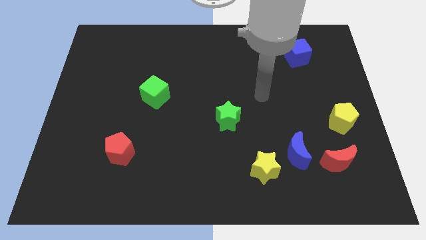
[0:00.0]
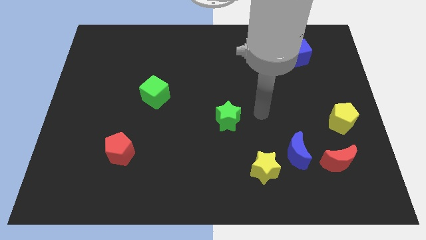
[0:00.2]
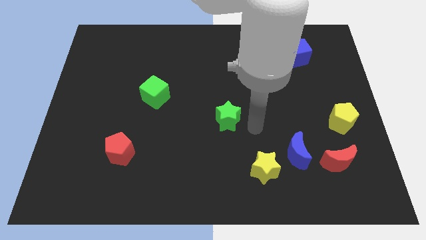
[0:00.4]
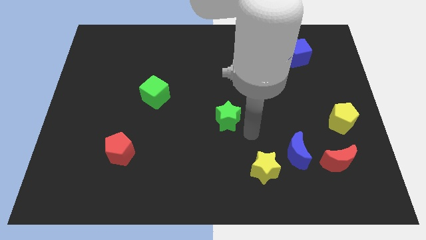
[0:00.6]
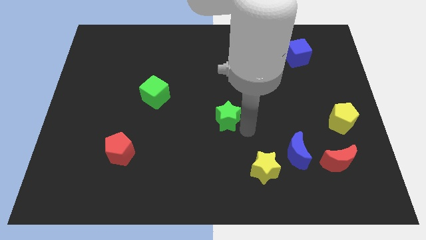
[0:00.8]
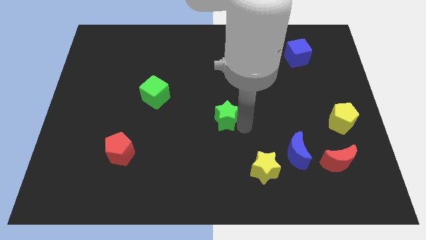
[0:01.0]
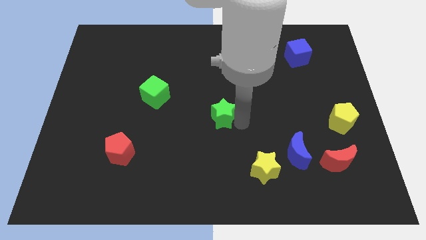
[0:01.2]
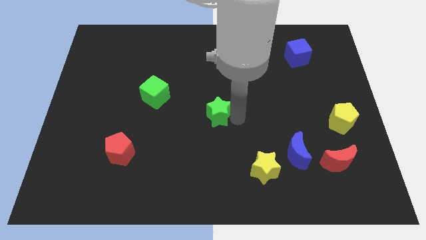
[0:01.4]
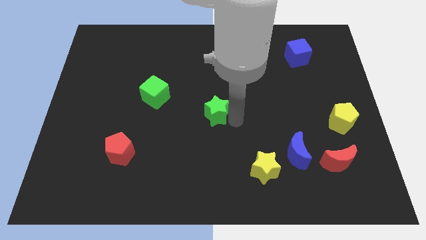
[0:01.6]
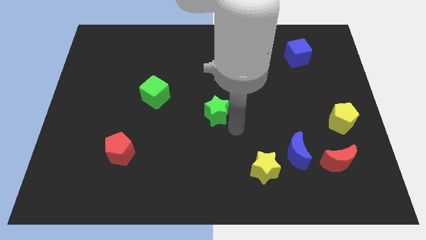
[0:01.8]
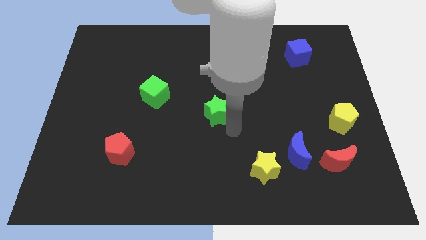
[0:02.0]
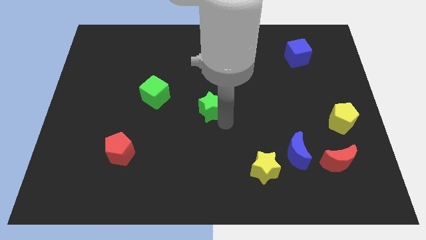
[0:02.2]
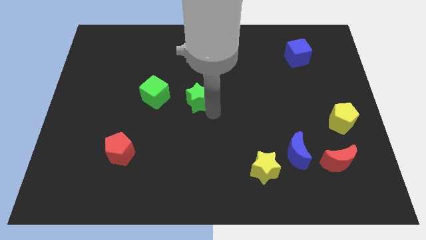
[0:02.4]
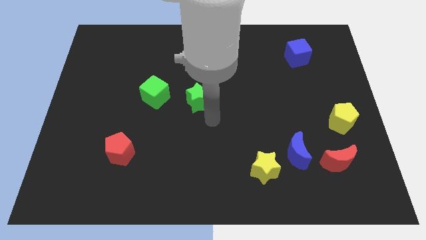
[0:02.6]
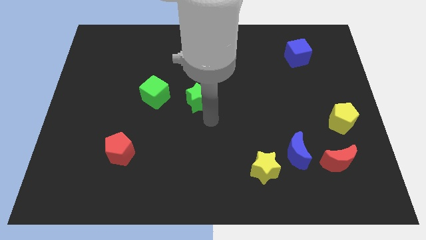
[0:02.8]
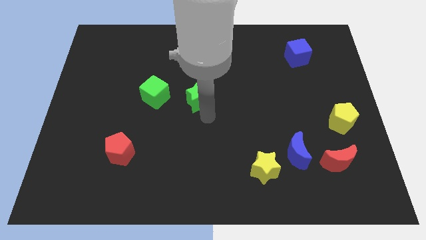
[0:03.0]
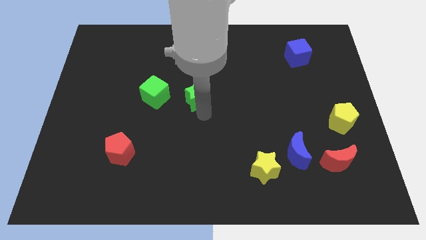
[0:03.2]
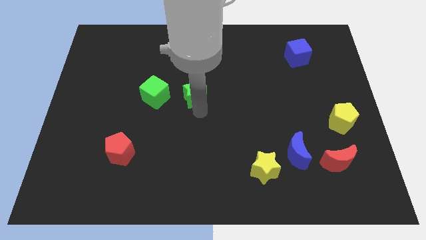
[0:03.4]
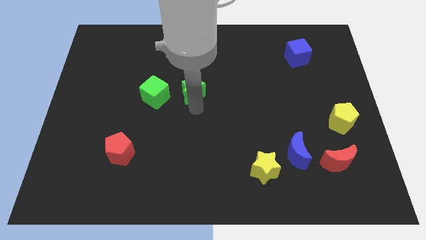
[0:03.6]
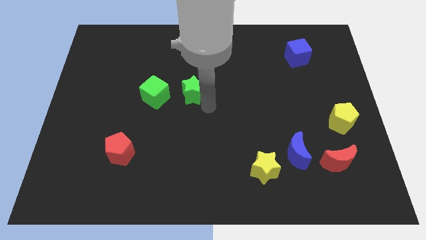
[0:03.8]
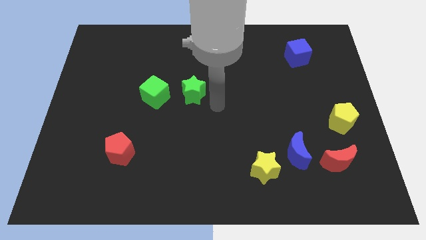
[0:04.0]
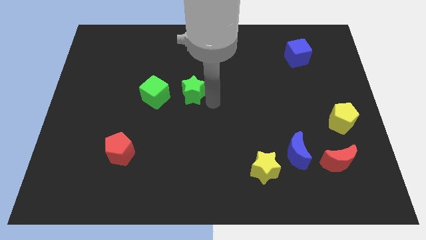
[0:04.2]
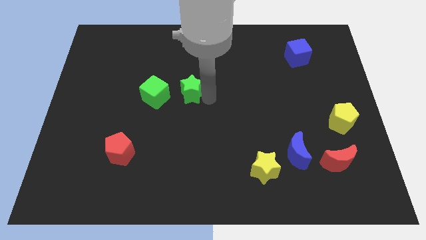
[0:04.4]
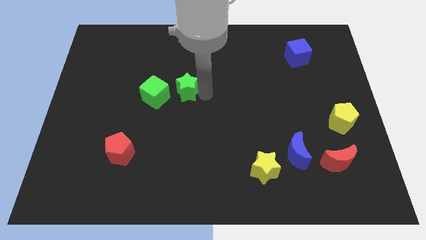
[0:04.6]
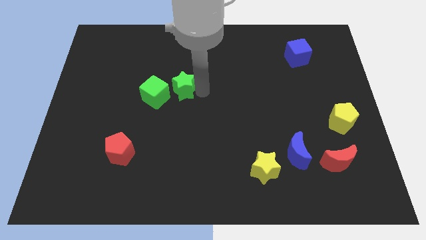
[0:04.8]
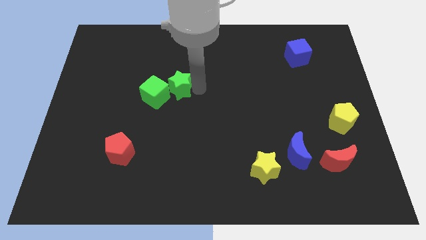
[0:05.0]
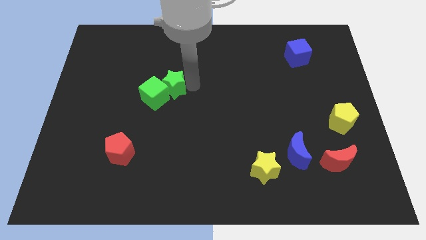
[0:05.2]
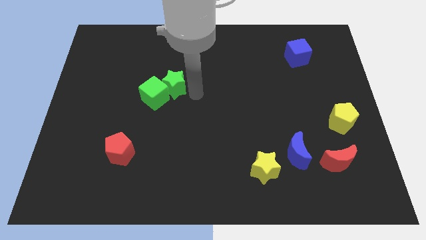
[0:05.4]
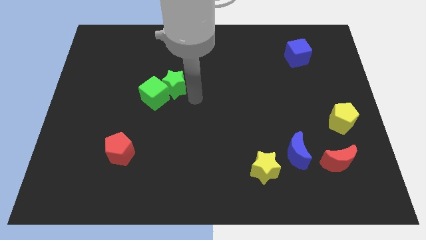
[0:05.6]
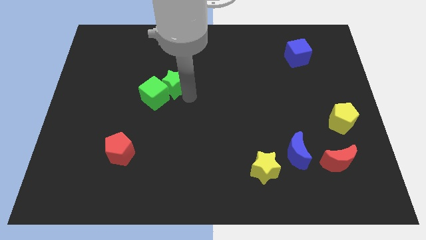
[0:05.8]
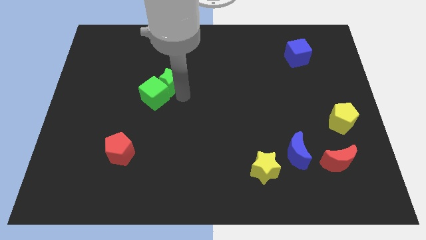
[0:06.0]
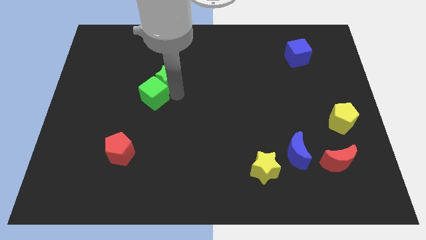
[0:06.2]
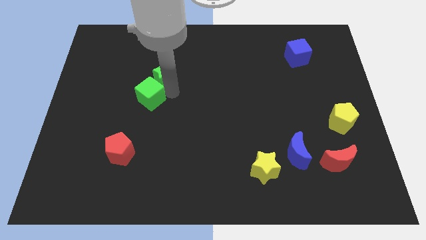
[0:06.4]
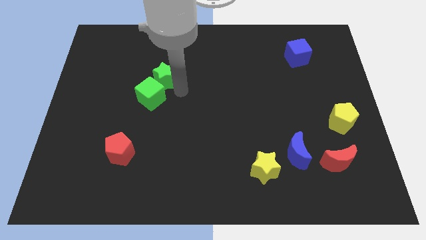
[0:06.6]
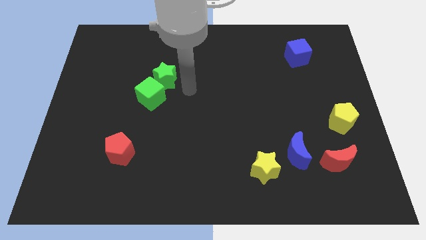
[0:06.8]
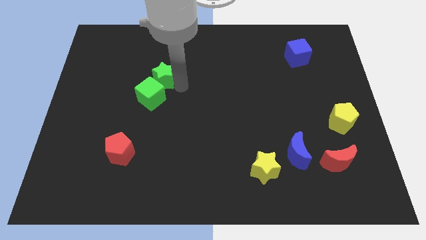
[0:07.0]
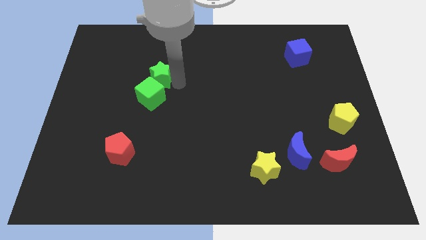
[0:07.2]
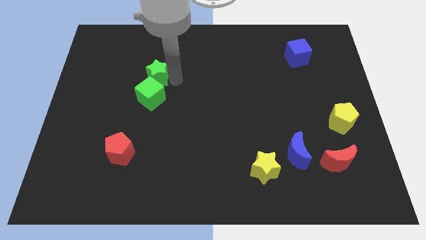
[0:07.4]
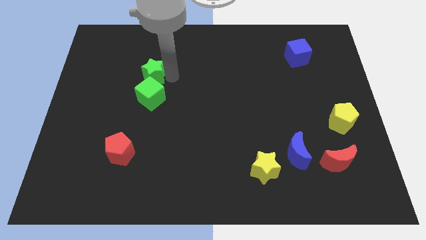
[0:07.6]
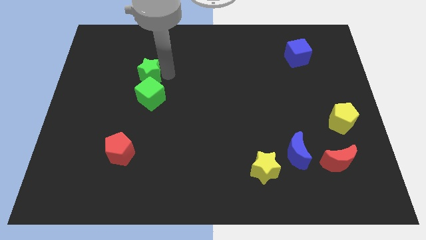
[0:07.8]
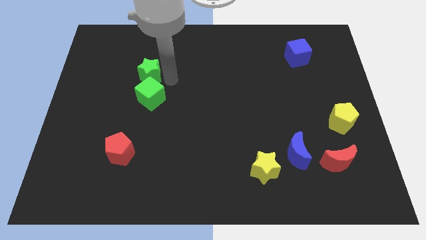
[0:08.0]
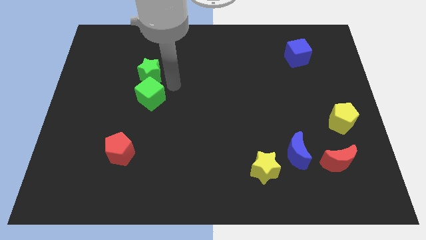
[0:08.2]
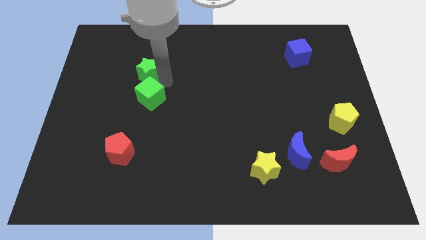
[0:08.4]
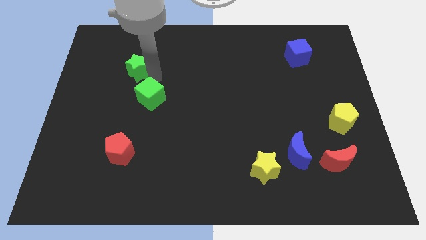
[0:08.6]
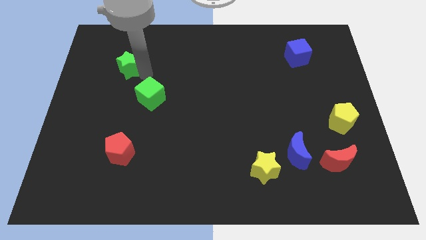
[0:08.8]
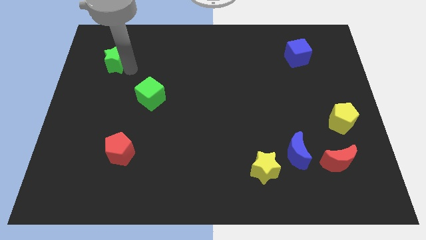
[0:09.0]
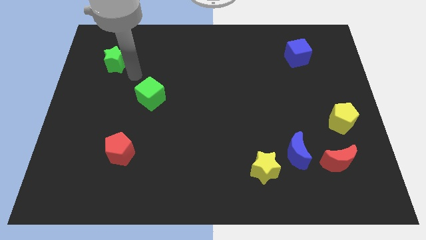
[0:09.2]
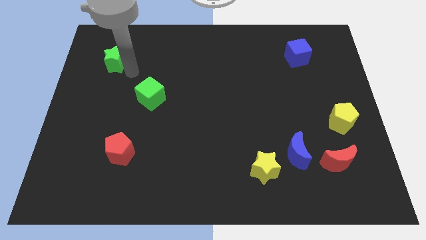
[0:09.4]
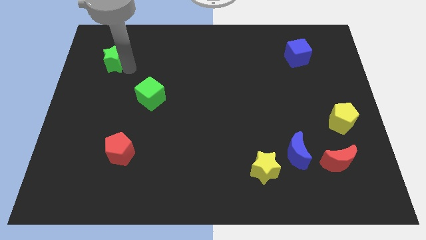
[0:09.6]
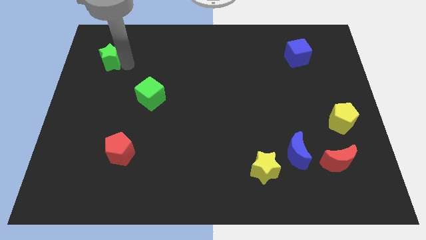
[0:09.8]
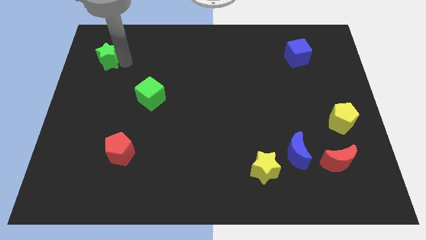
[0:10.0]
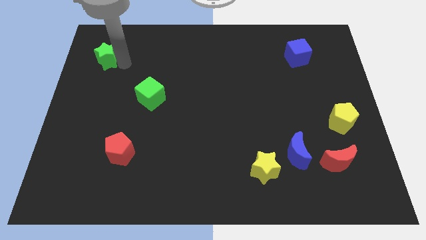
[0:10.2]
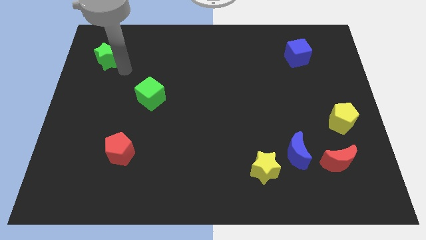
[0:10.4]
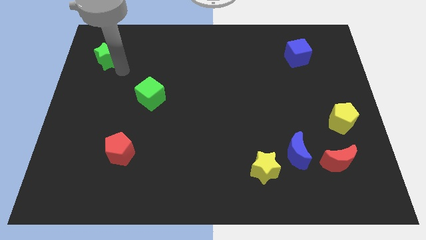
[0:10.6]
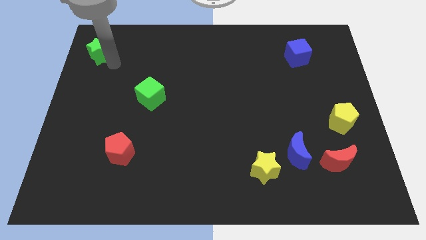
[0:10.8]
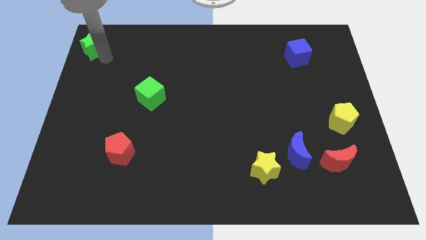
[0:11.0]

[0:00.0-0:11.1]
put the green star to the upper left corner
